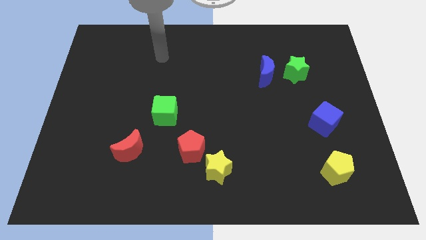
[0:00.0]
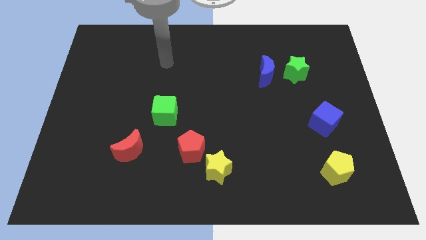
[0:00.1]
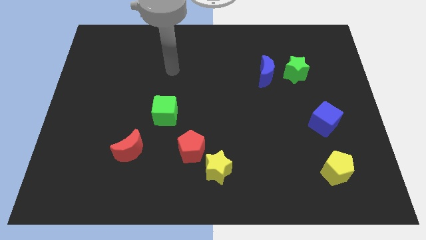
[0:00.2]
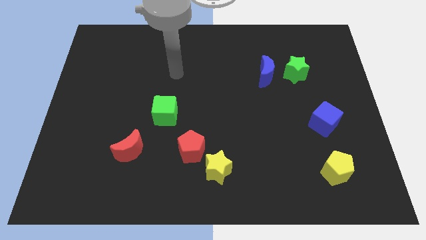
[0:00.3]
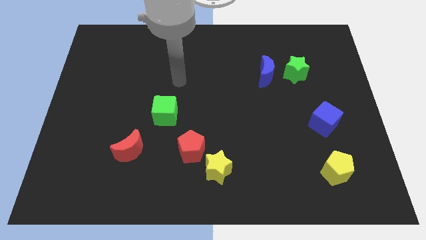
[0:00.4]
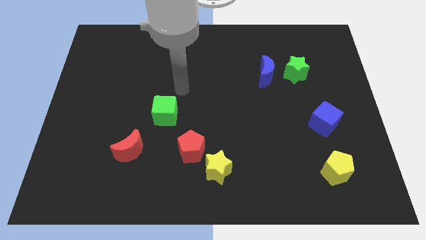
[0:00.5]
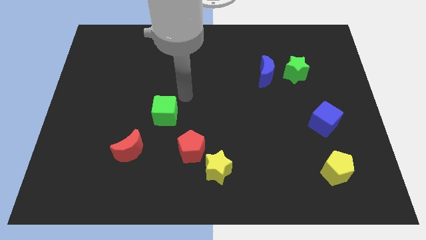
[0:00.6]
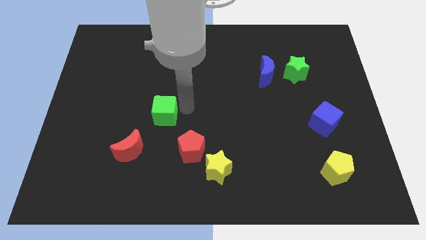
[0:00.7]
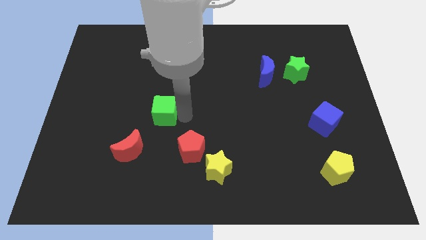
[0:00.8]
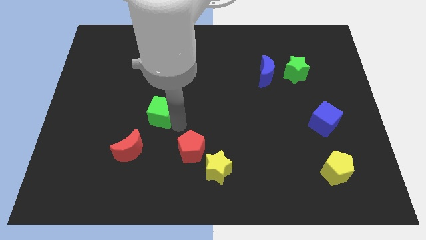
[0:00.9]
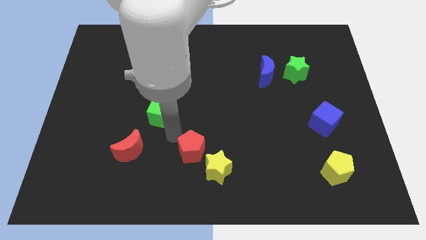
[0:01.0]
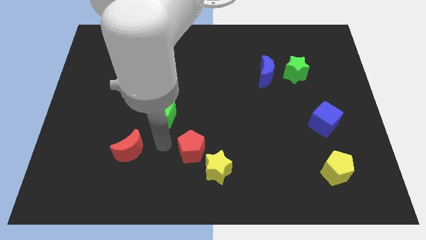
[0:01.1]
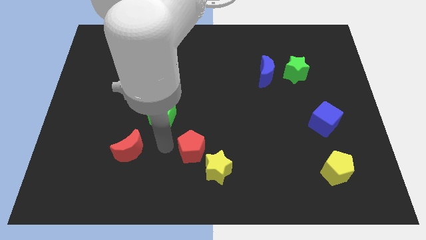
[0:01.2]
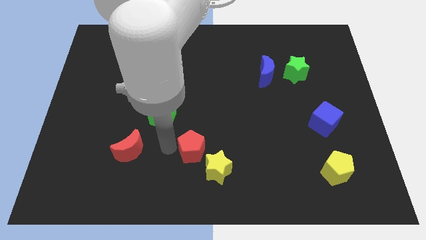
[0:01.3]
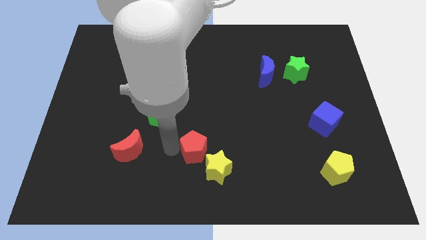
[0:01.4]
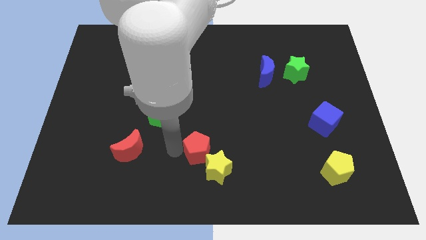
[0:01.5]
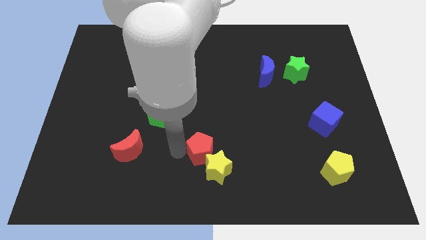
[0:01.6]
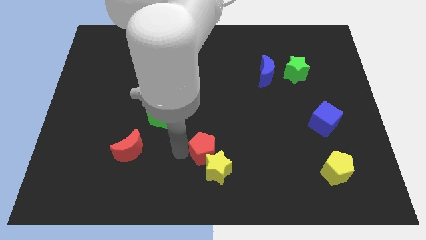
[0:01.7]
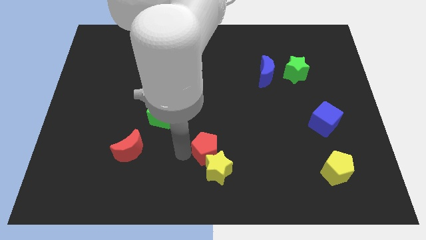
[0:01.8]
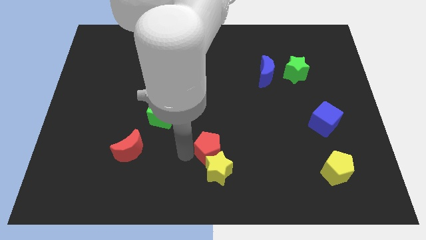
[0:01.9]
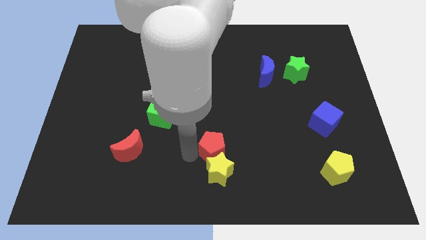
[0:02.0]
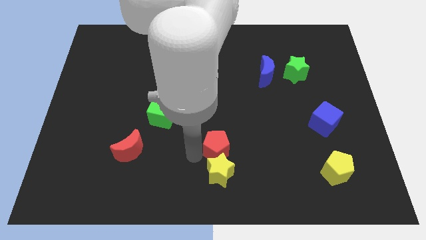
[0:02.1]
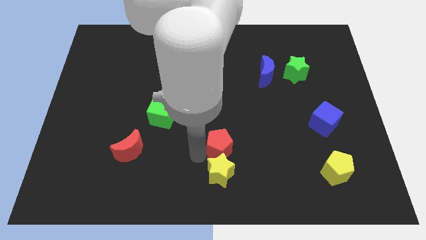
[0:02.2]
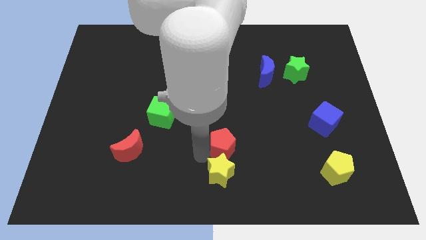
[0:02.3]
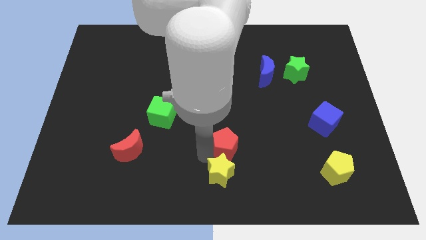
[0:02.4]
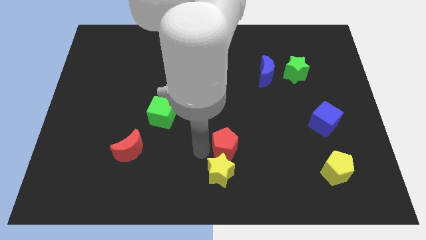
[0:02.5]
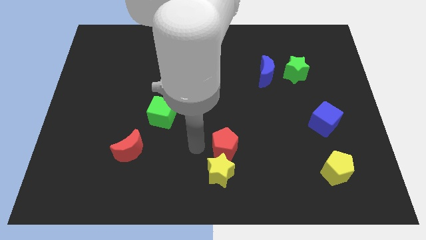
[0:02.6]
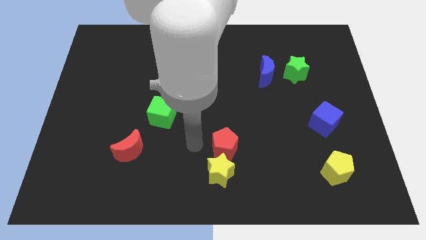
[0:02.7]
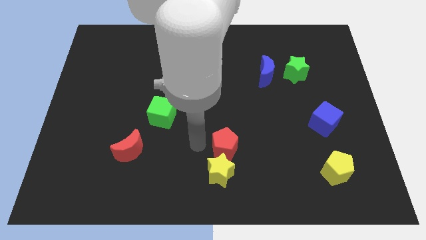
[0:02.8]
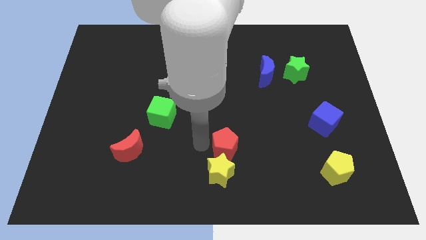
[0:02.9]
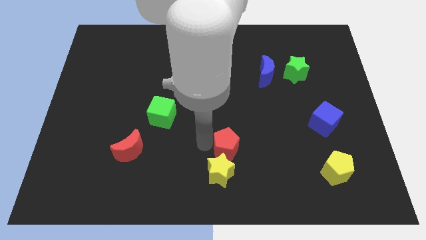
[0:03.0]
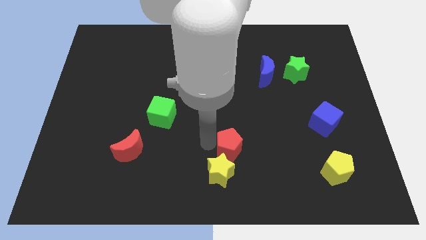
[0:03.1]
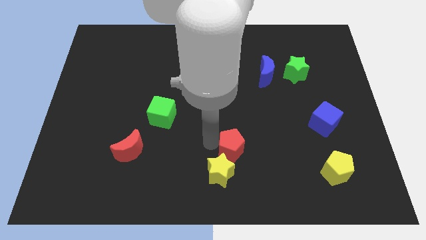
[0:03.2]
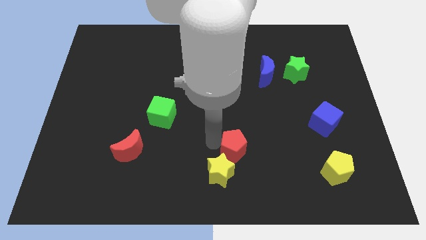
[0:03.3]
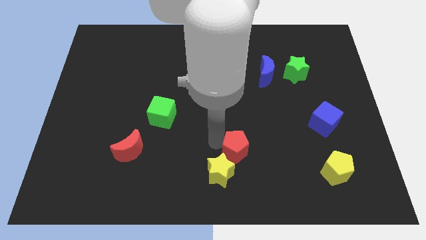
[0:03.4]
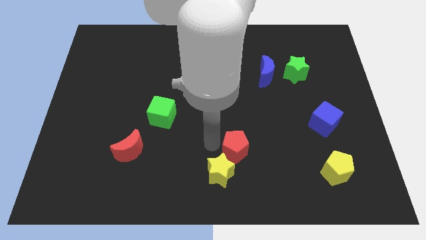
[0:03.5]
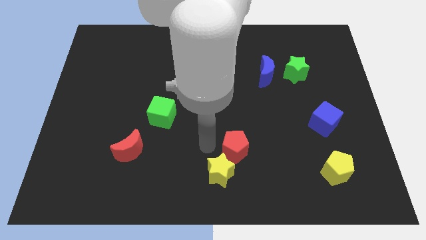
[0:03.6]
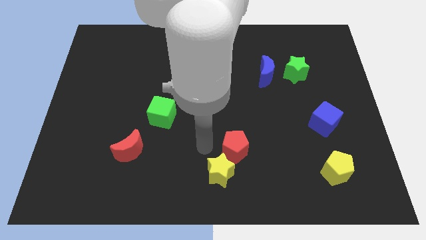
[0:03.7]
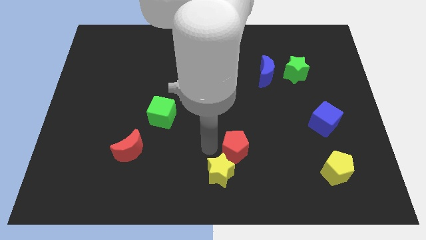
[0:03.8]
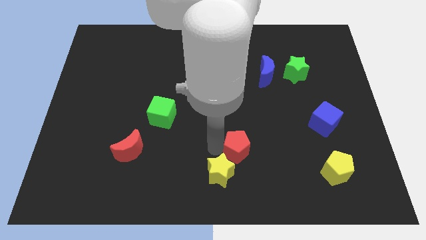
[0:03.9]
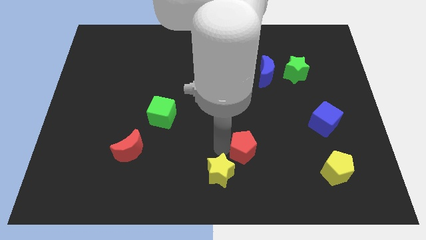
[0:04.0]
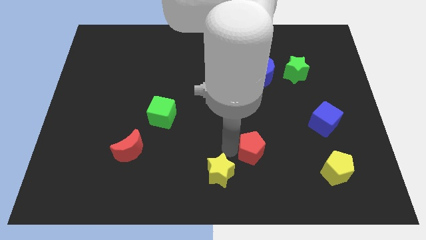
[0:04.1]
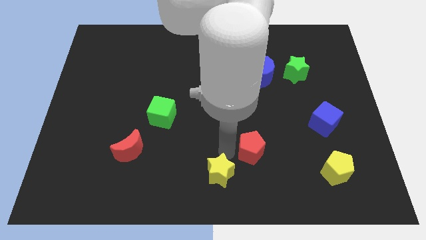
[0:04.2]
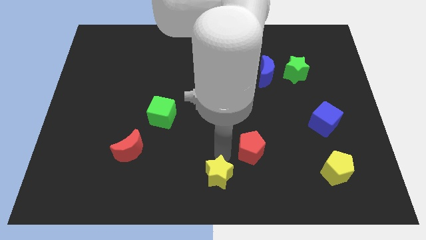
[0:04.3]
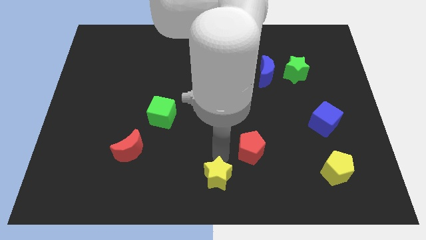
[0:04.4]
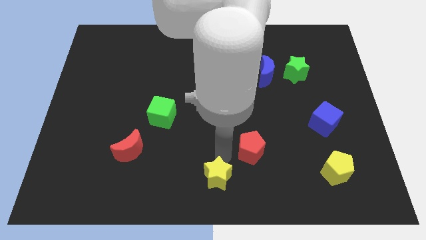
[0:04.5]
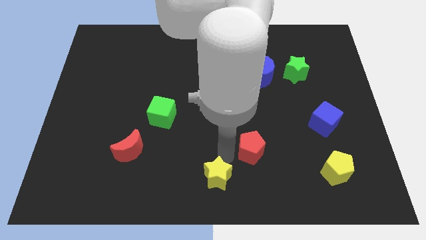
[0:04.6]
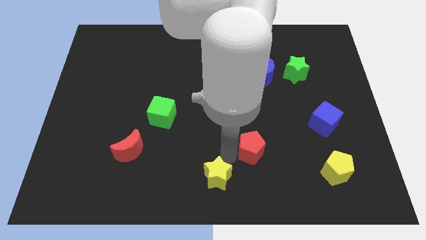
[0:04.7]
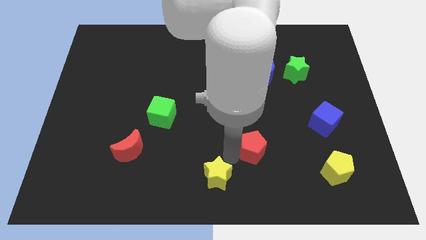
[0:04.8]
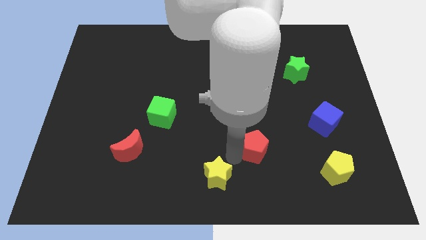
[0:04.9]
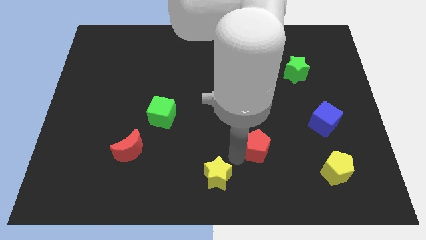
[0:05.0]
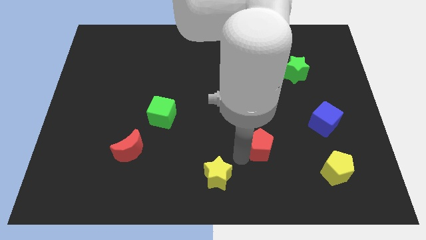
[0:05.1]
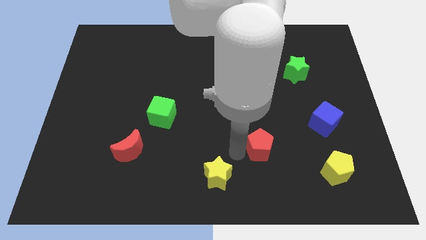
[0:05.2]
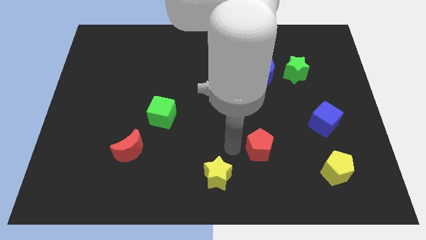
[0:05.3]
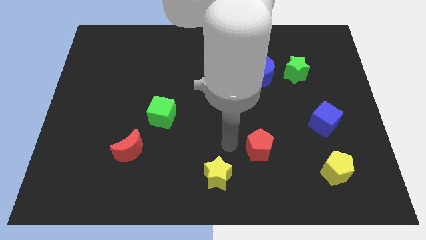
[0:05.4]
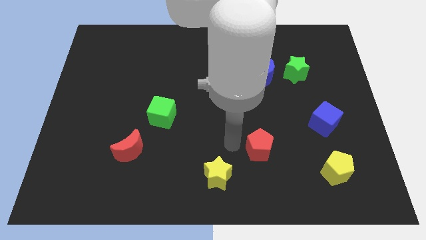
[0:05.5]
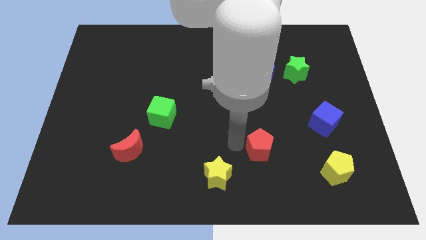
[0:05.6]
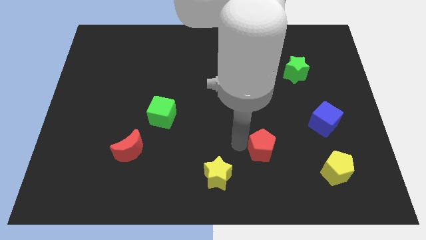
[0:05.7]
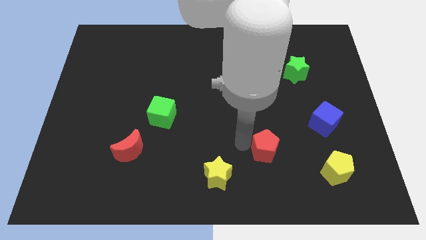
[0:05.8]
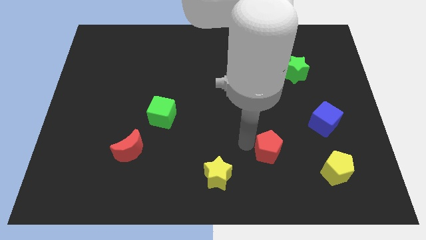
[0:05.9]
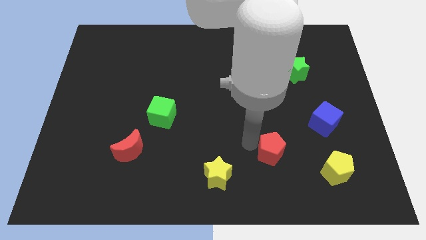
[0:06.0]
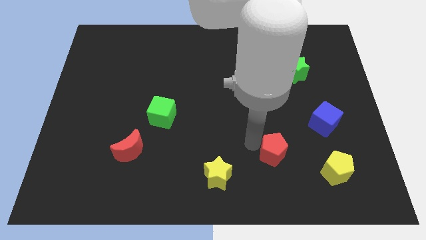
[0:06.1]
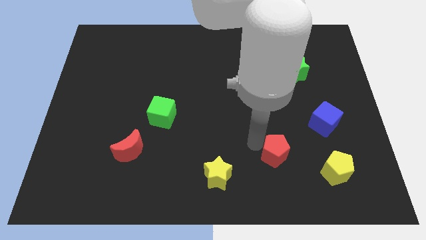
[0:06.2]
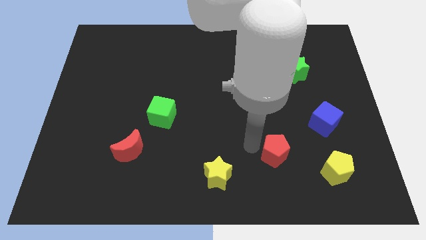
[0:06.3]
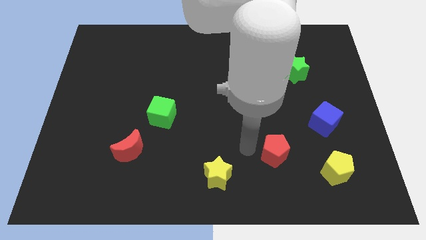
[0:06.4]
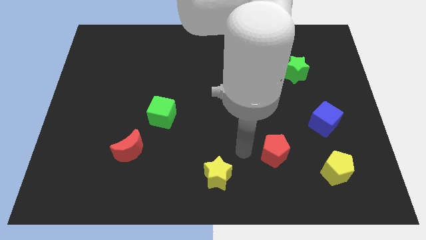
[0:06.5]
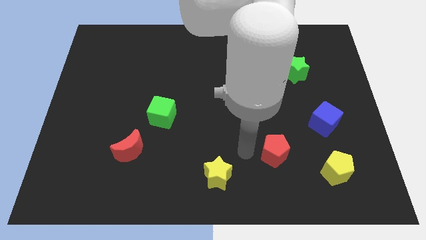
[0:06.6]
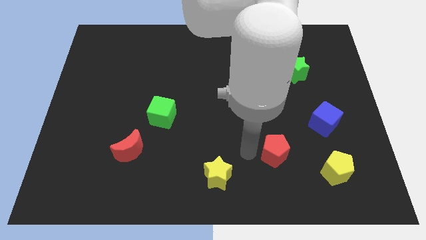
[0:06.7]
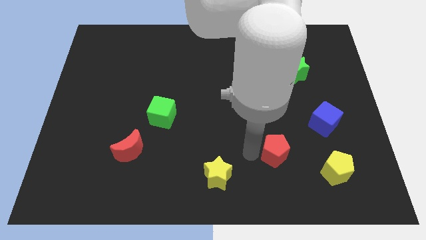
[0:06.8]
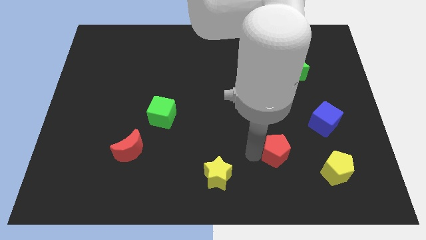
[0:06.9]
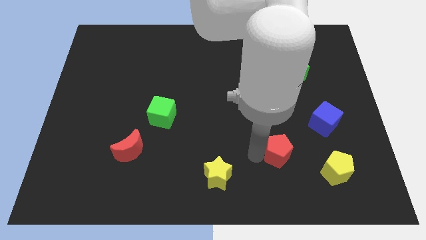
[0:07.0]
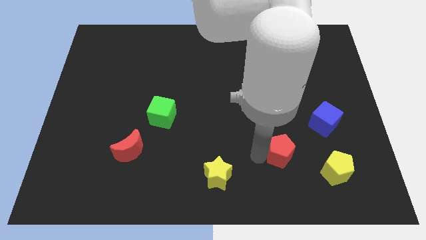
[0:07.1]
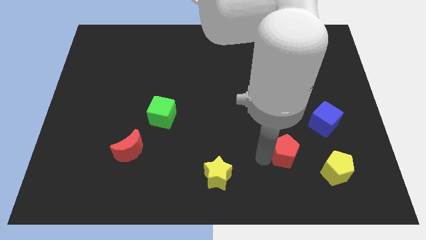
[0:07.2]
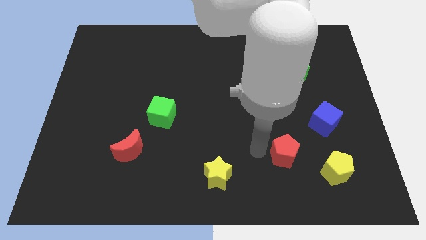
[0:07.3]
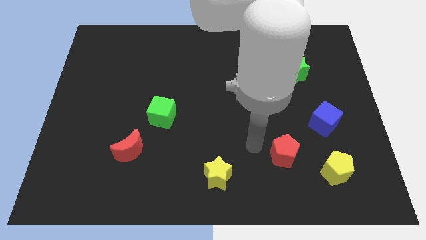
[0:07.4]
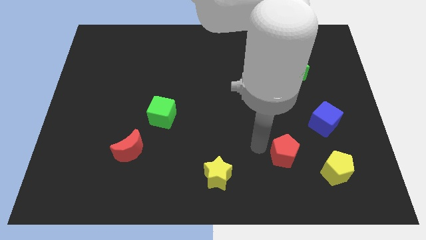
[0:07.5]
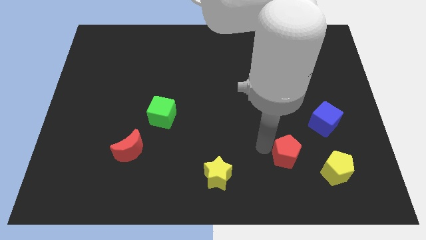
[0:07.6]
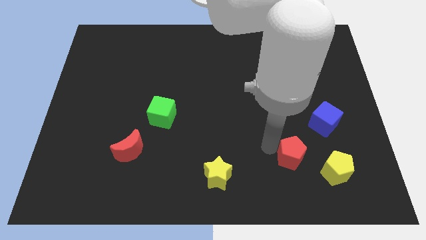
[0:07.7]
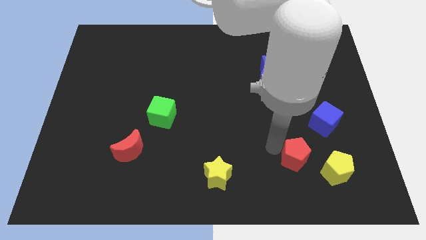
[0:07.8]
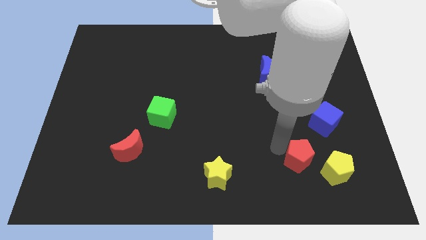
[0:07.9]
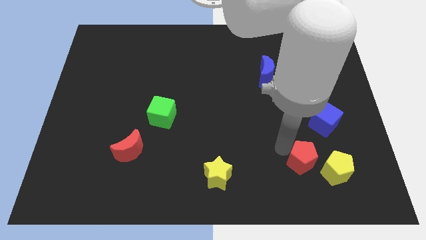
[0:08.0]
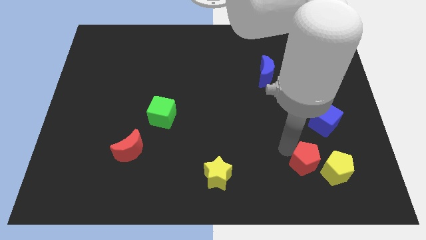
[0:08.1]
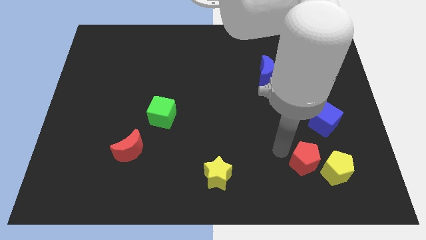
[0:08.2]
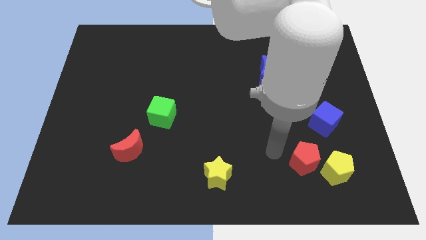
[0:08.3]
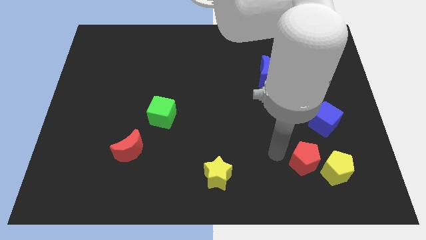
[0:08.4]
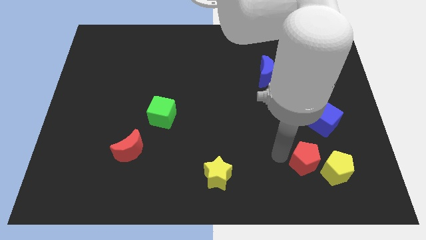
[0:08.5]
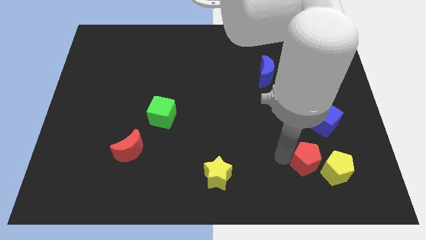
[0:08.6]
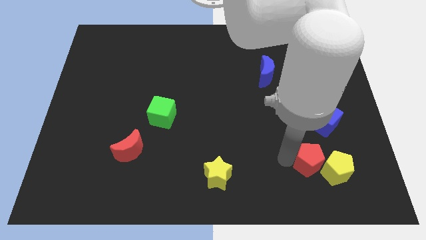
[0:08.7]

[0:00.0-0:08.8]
move the red pentagon close to the yellow pentagon
